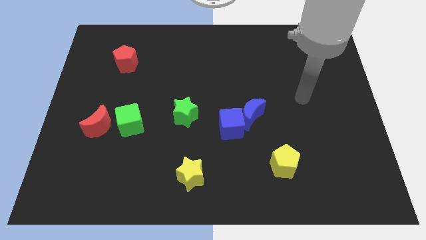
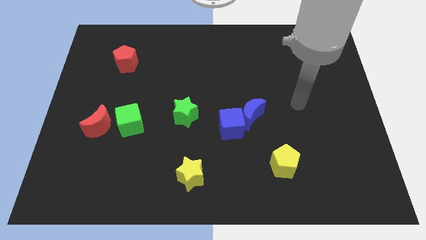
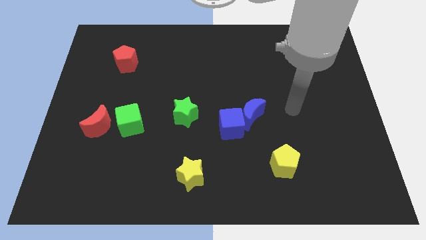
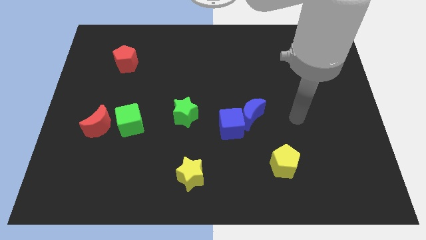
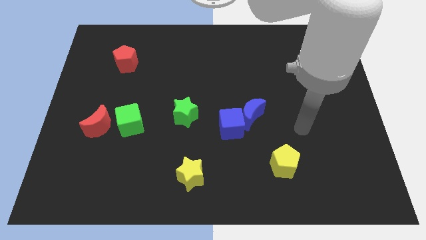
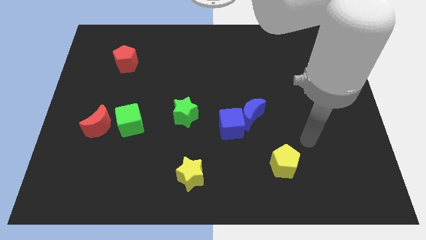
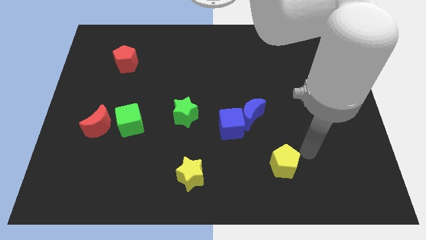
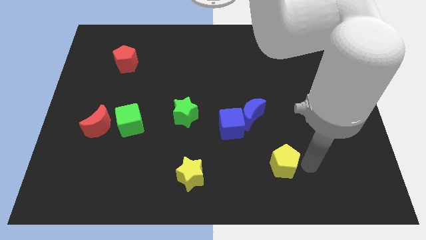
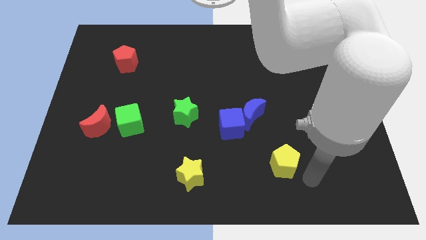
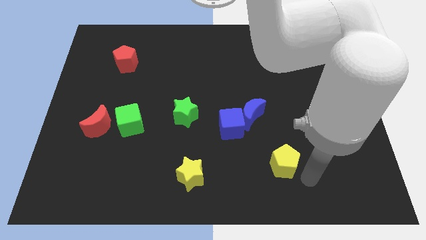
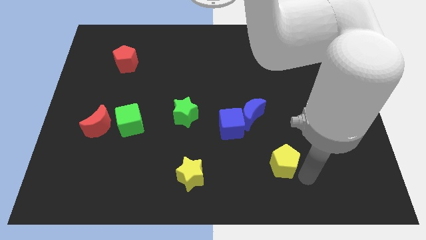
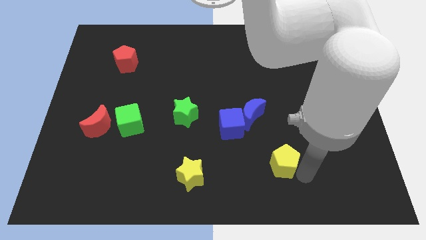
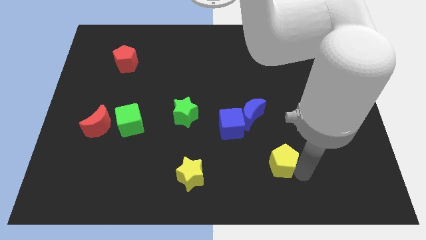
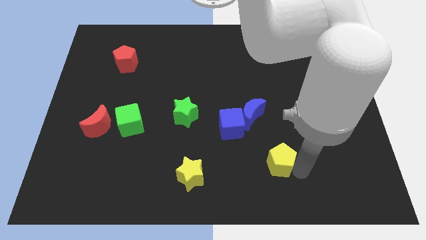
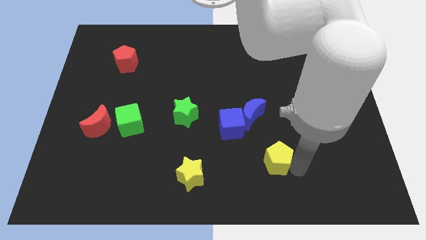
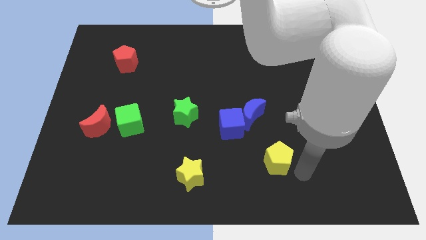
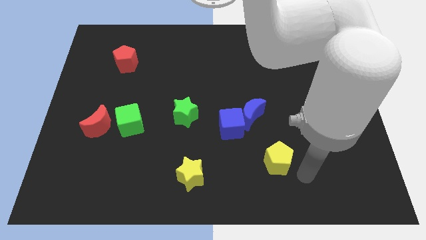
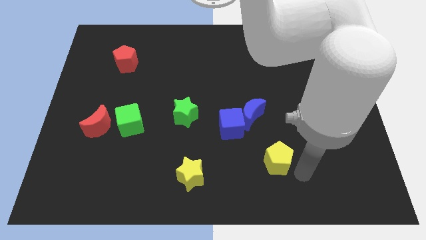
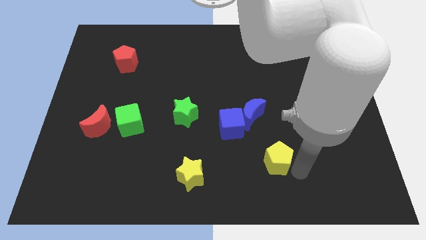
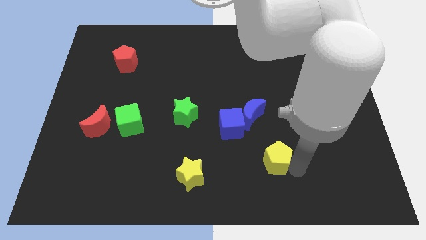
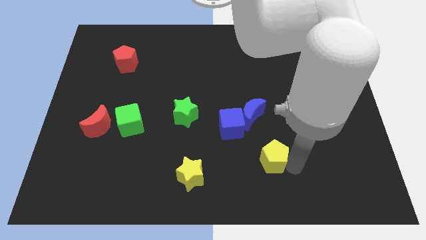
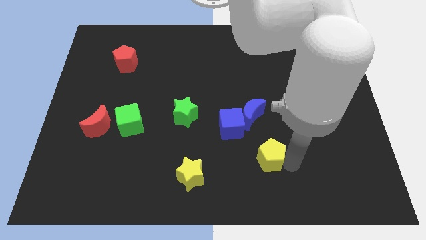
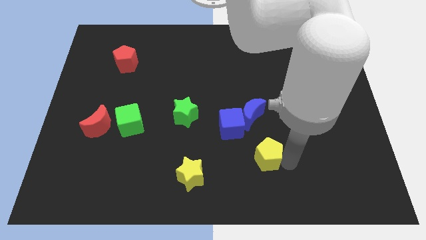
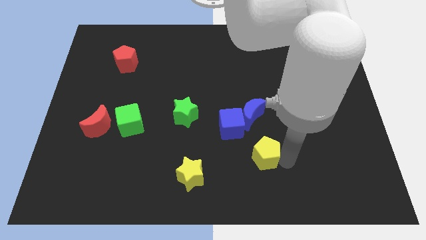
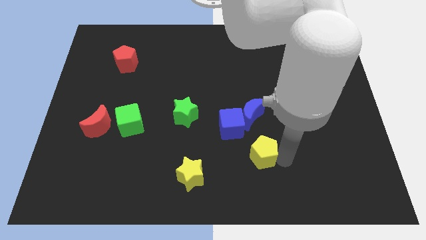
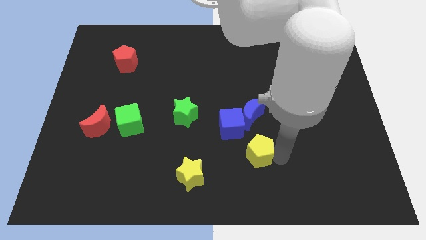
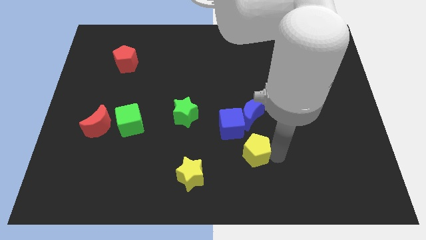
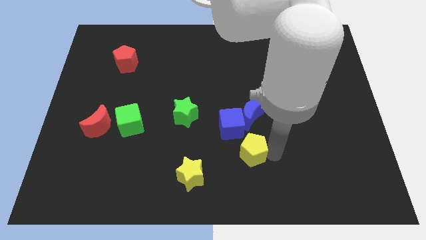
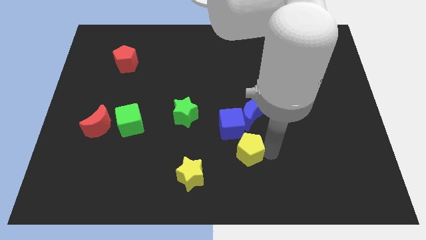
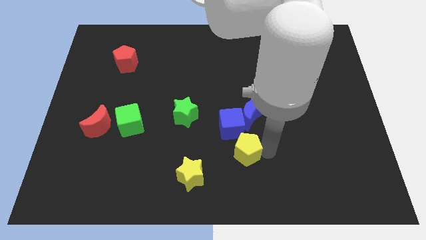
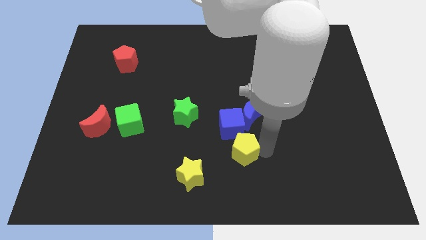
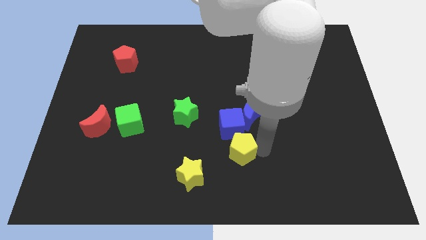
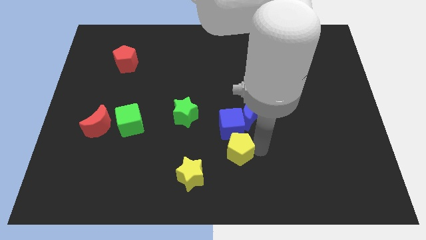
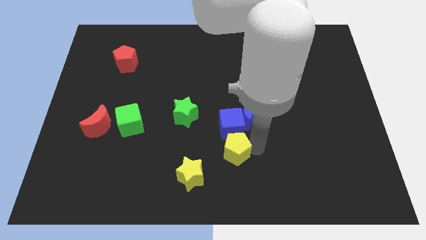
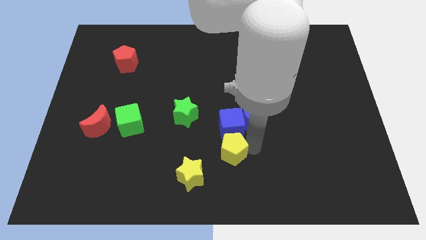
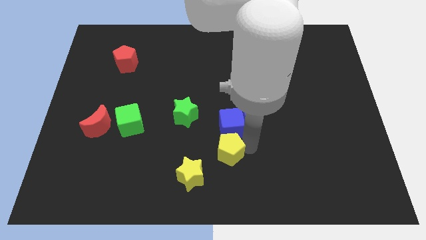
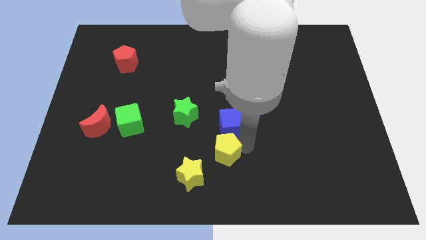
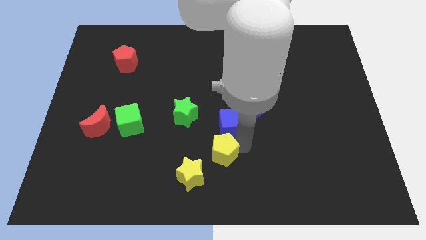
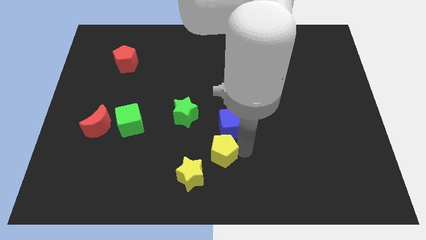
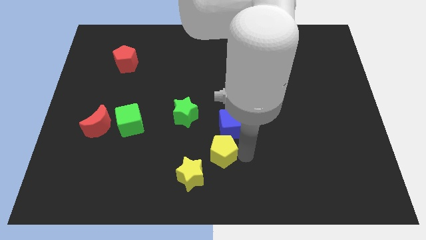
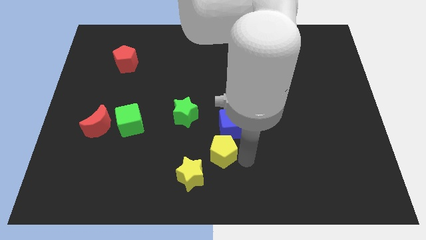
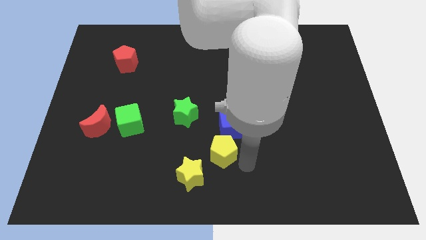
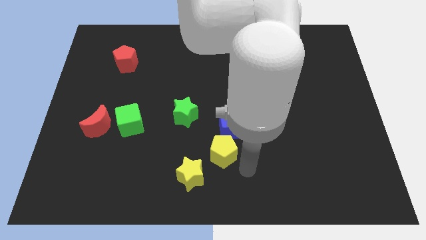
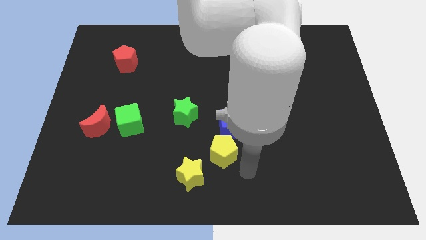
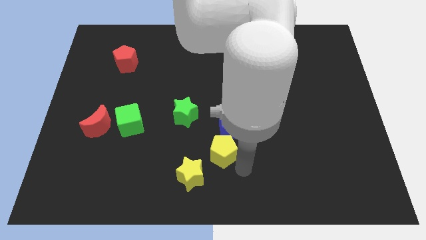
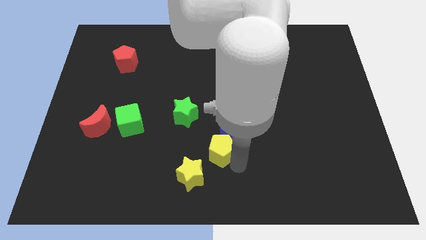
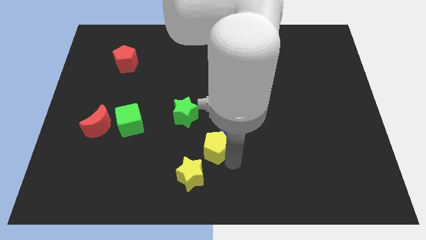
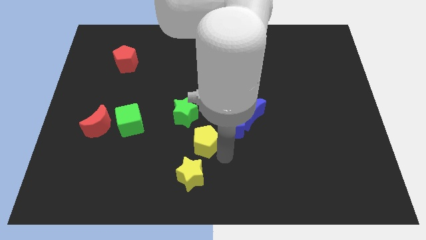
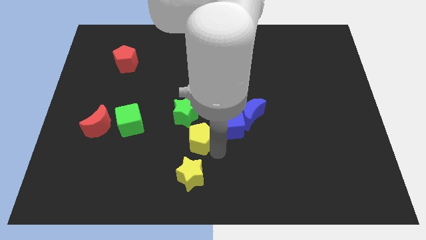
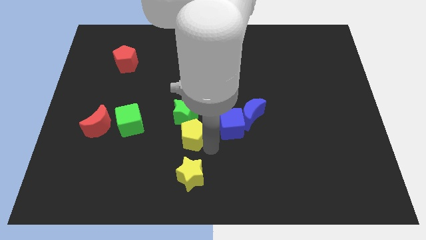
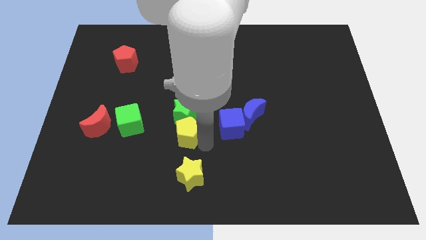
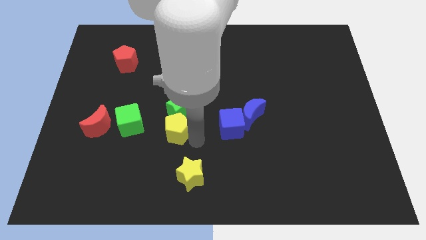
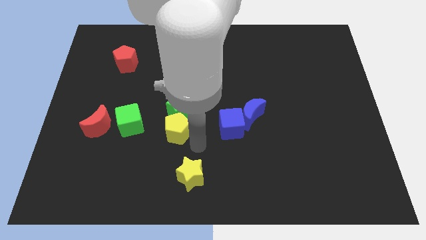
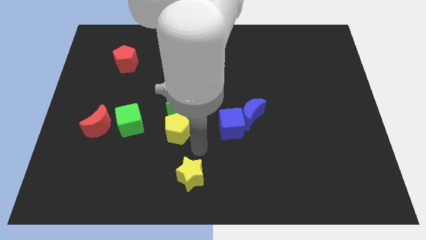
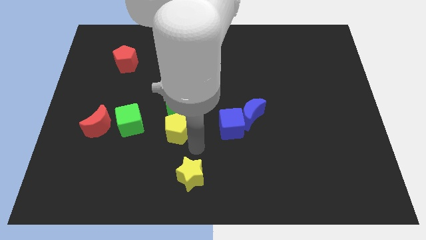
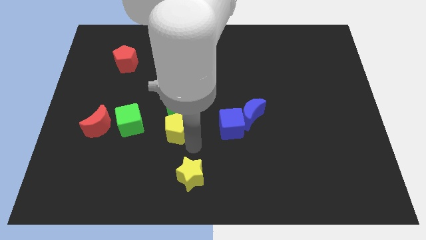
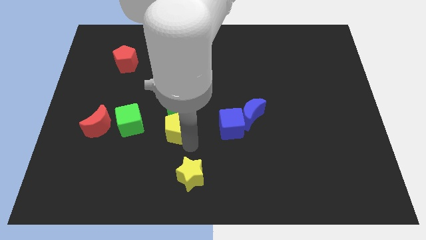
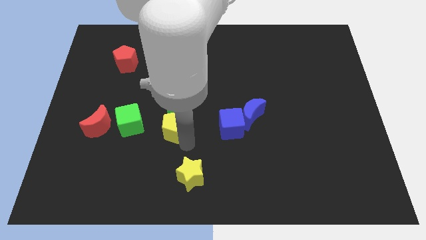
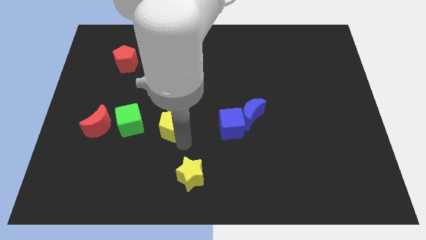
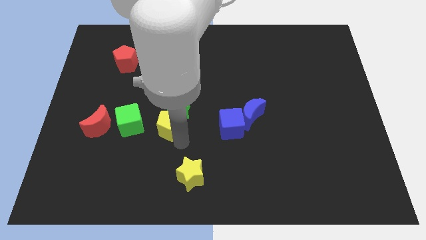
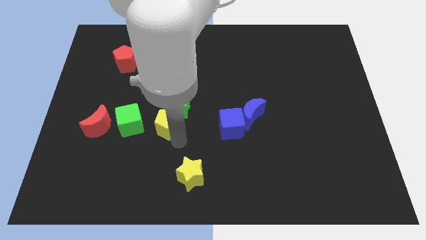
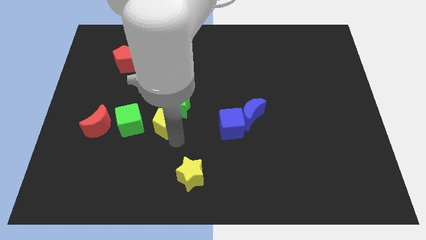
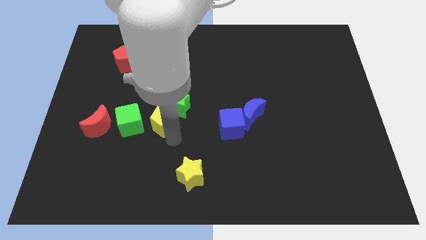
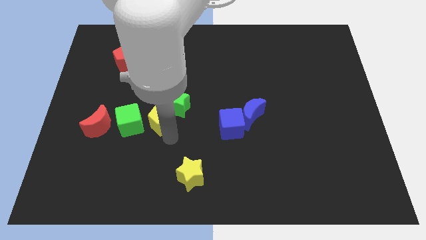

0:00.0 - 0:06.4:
slide the yellow pentagon just left of the green star

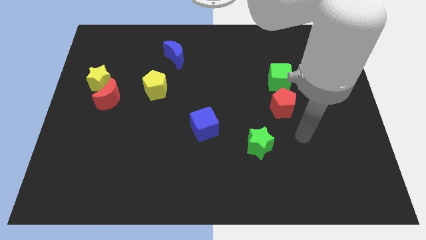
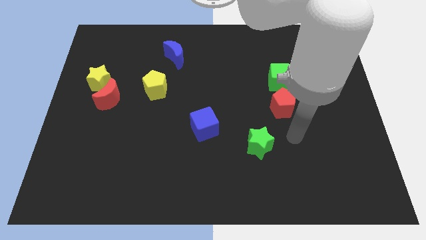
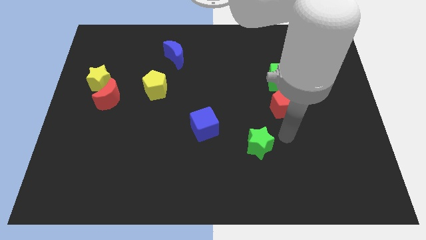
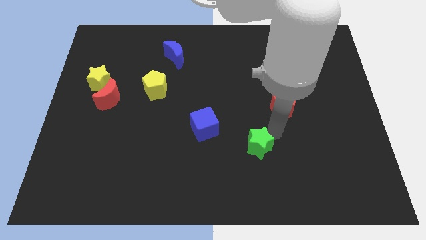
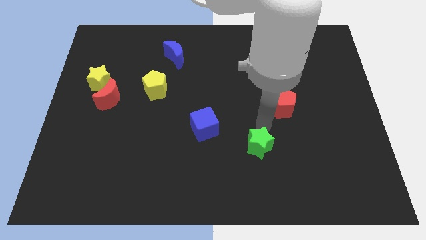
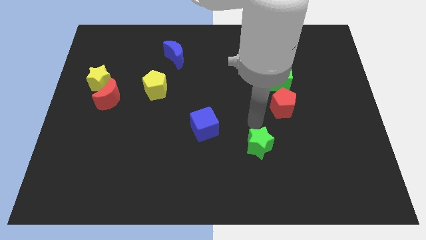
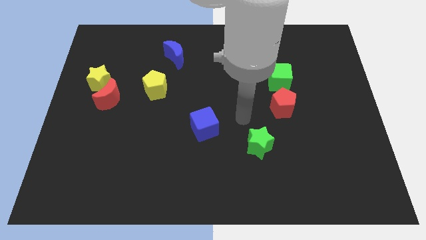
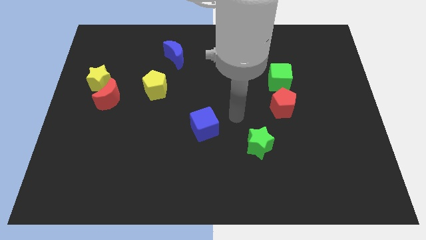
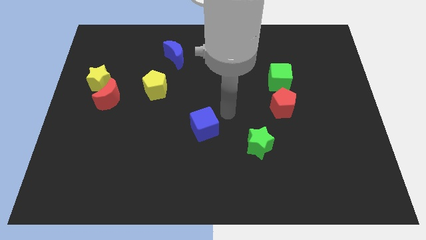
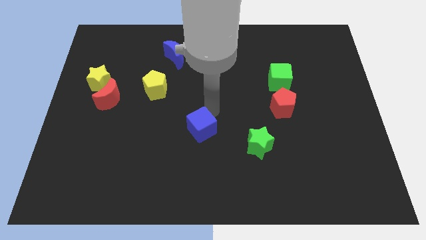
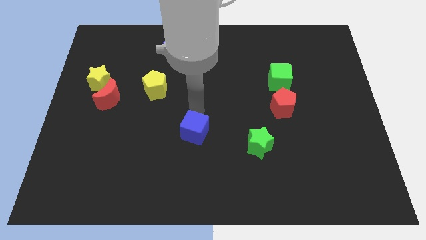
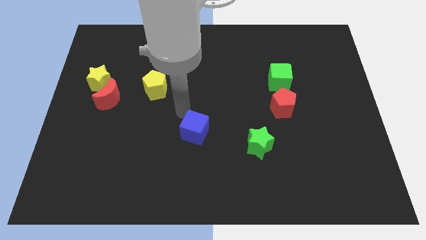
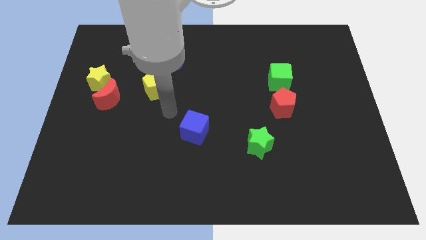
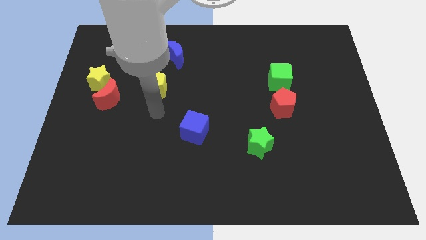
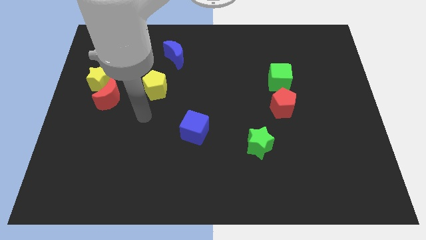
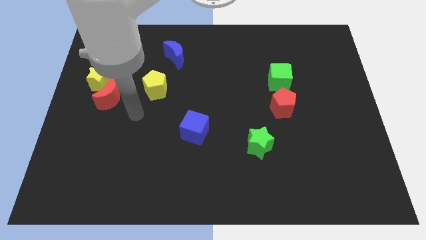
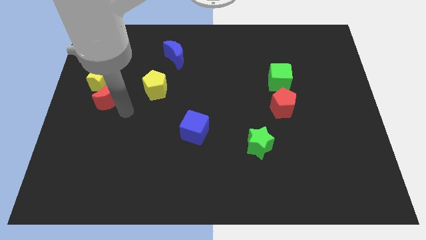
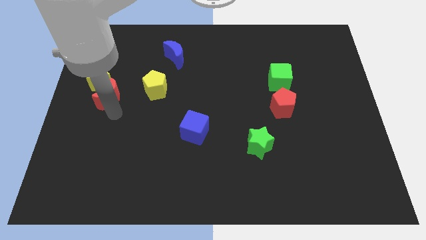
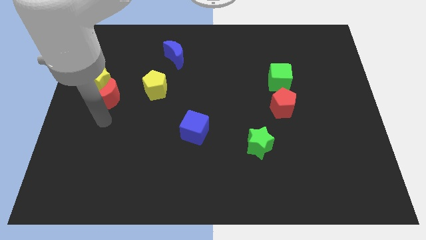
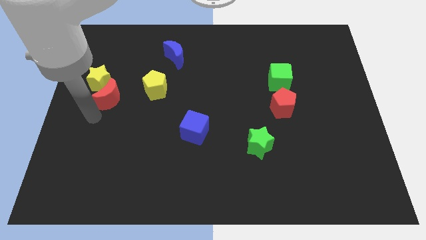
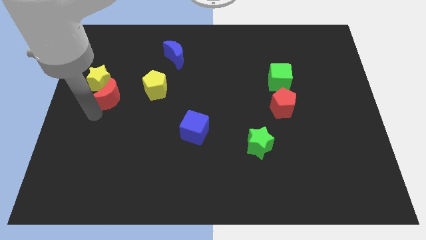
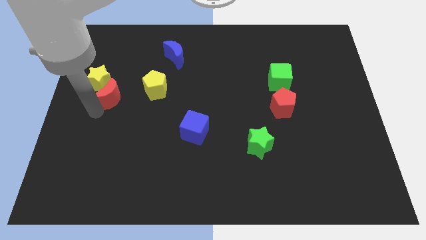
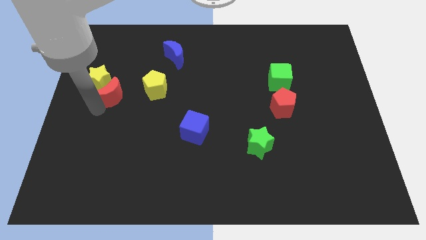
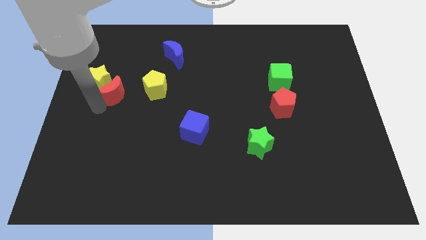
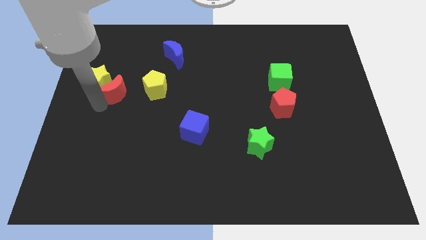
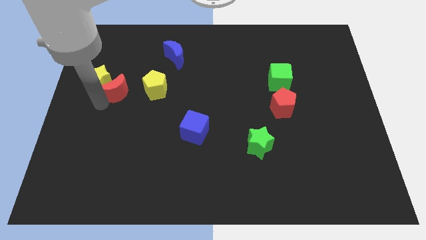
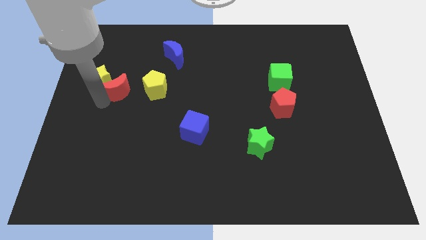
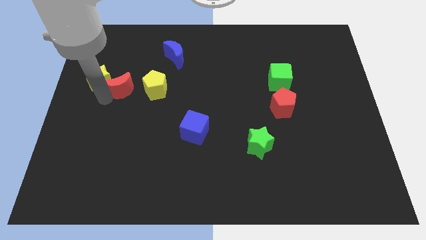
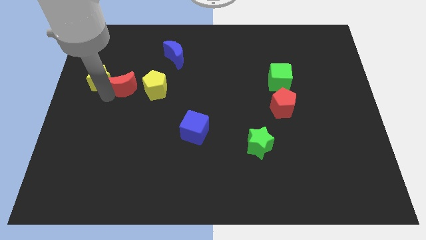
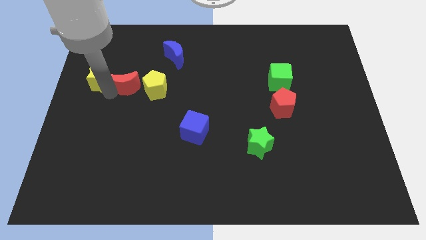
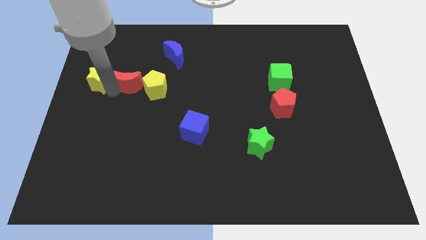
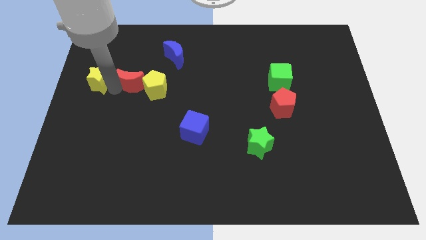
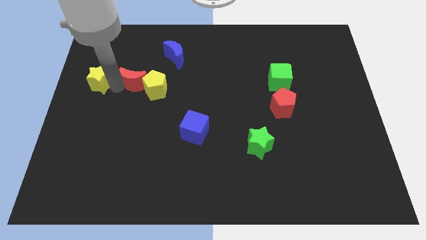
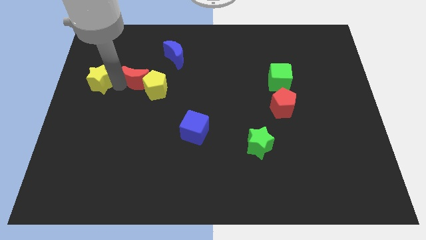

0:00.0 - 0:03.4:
push the red moon to the bottom left side of the blue moon
